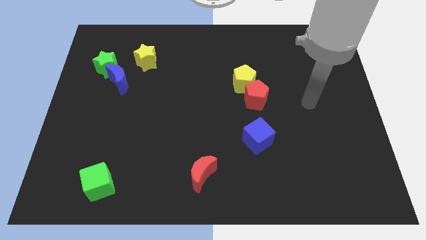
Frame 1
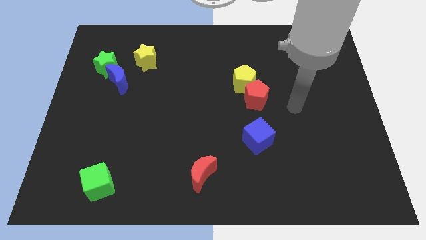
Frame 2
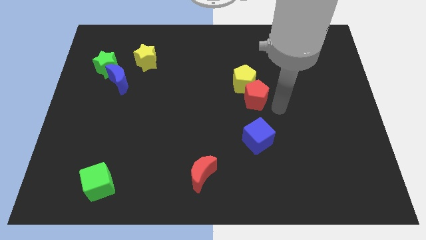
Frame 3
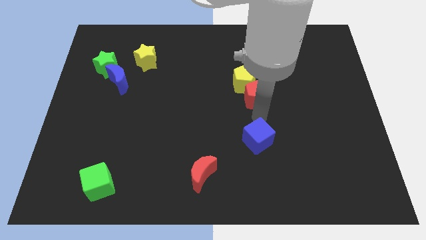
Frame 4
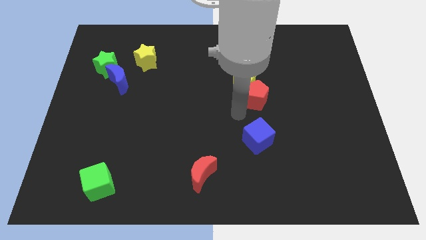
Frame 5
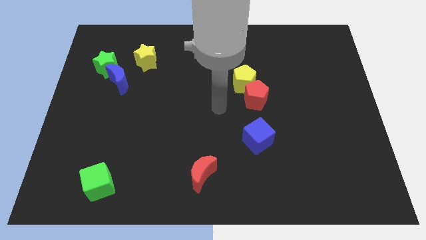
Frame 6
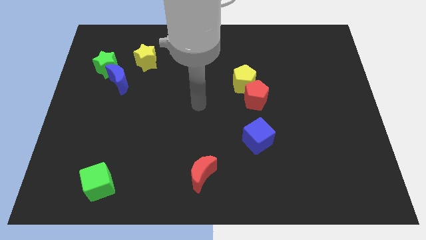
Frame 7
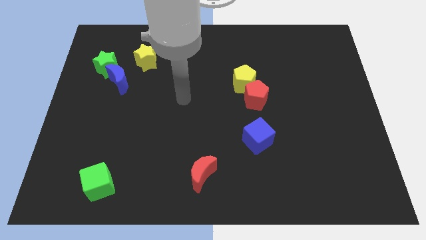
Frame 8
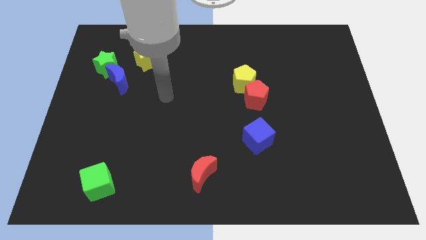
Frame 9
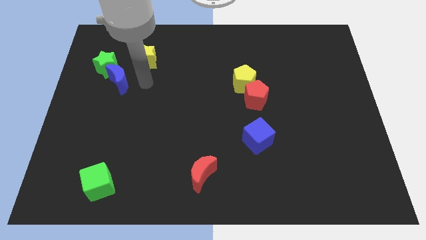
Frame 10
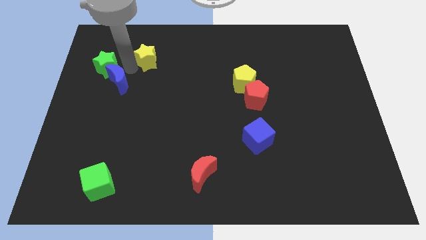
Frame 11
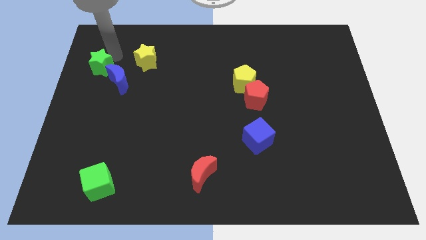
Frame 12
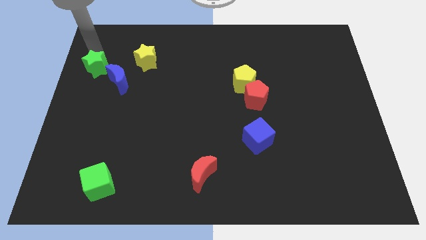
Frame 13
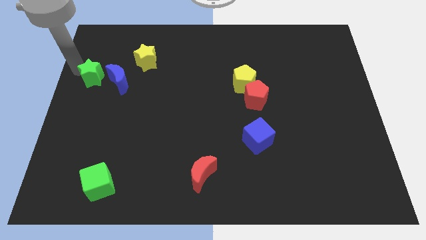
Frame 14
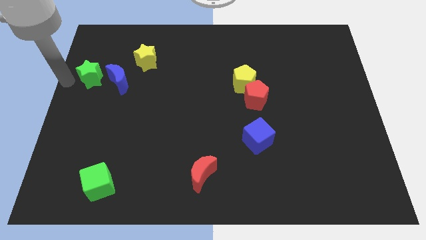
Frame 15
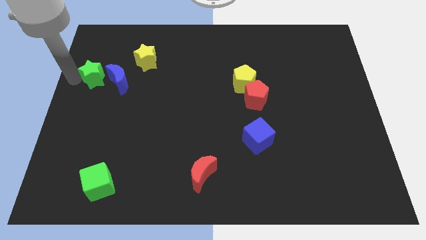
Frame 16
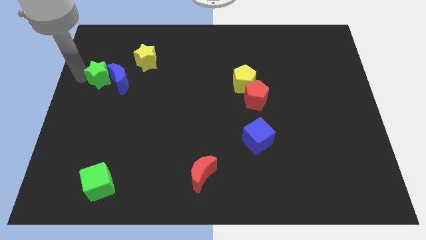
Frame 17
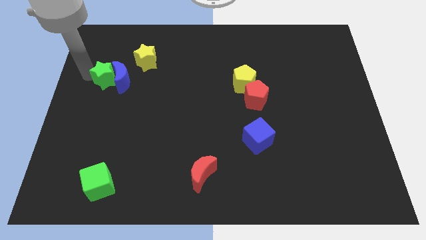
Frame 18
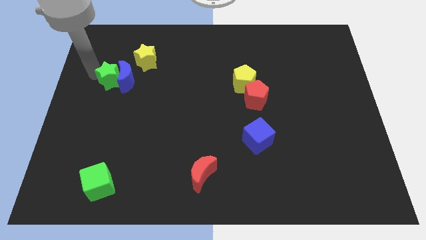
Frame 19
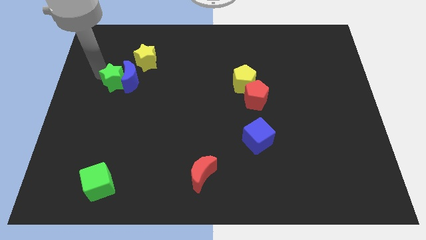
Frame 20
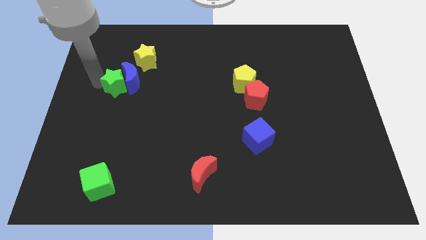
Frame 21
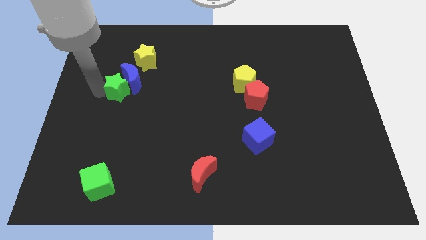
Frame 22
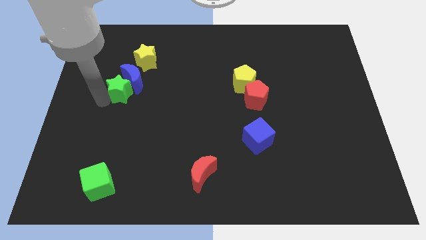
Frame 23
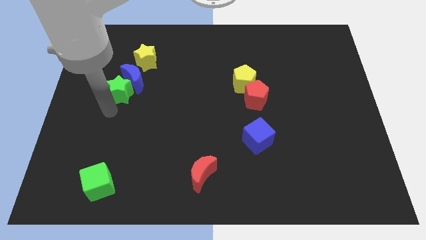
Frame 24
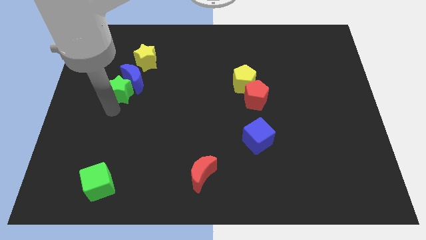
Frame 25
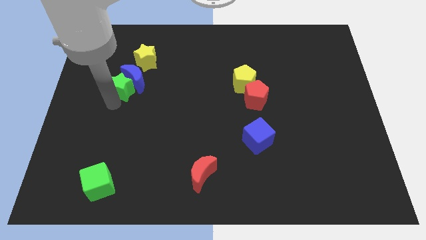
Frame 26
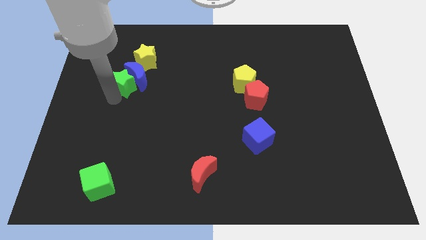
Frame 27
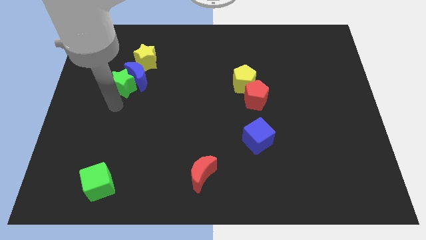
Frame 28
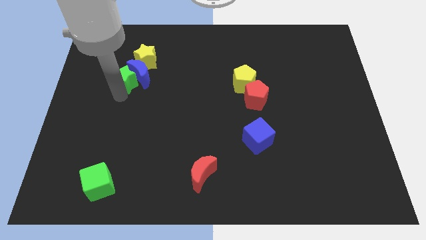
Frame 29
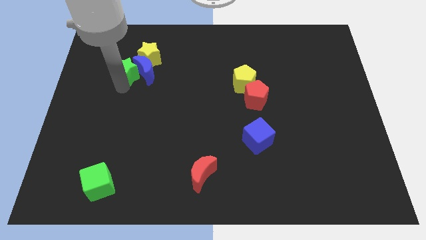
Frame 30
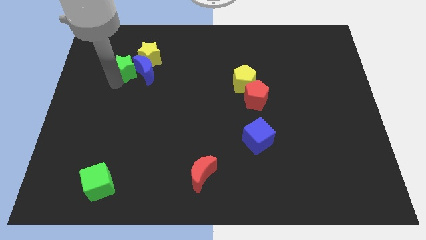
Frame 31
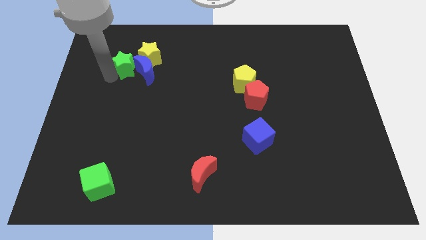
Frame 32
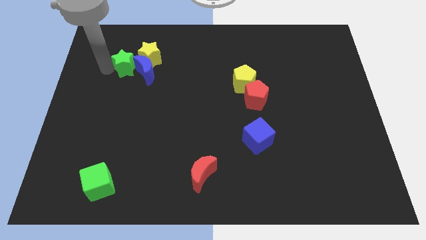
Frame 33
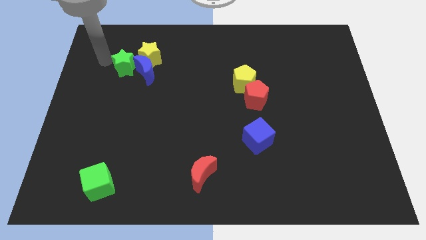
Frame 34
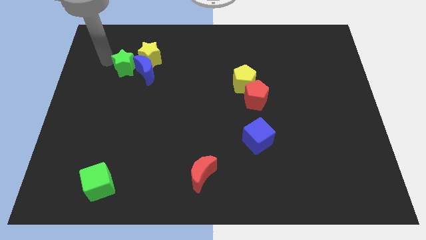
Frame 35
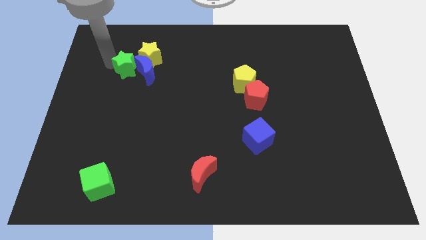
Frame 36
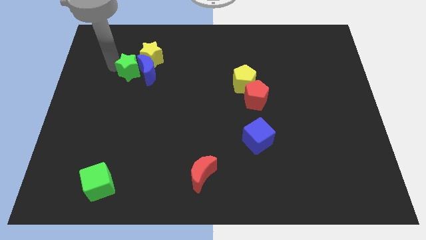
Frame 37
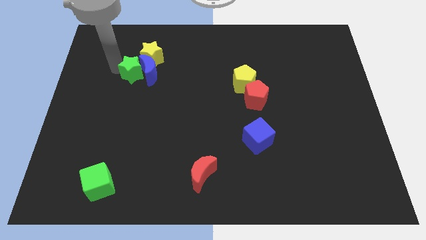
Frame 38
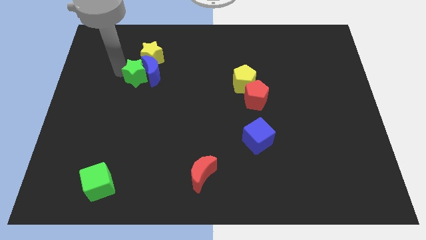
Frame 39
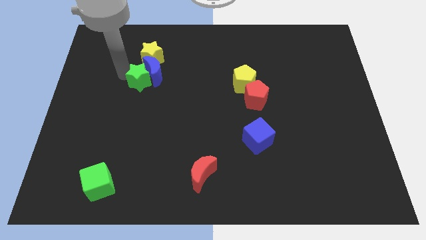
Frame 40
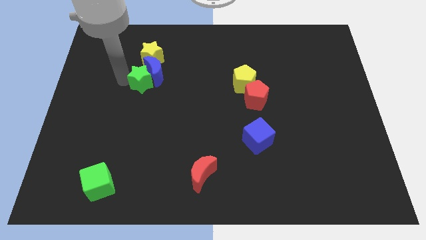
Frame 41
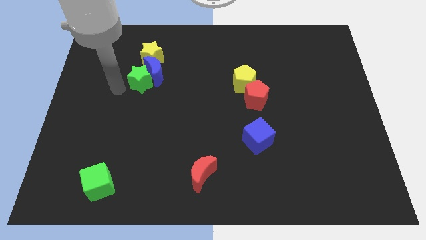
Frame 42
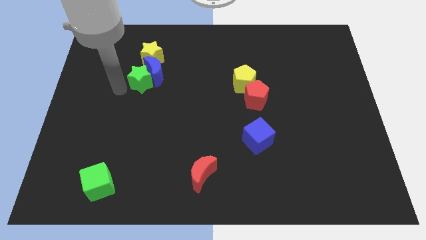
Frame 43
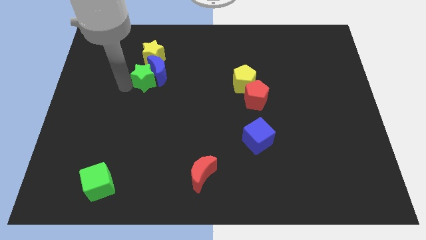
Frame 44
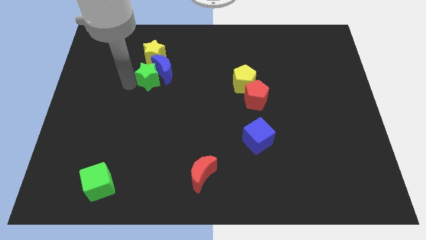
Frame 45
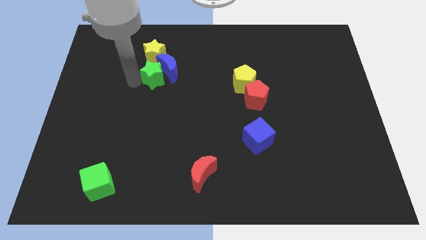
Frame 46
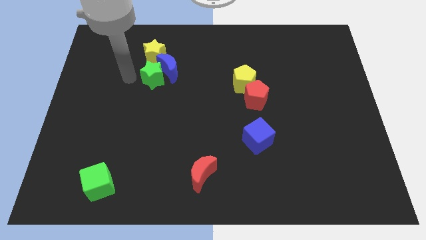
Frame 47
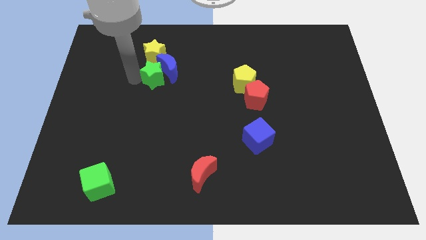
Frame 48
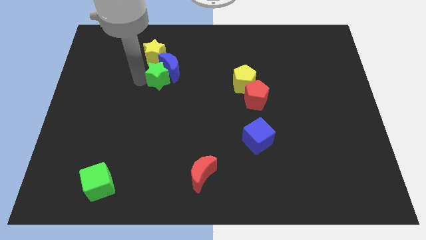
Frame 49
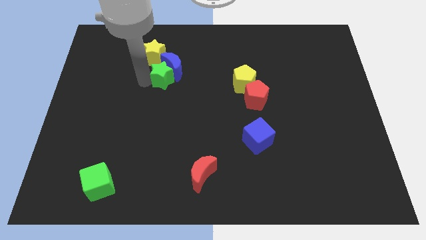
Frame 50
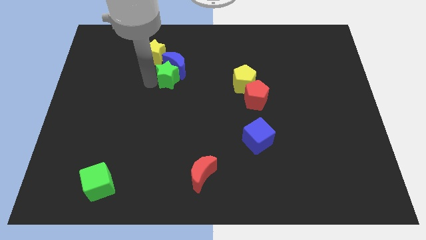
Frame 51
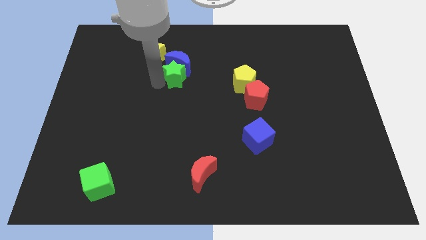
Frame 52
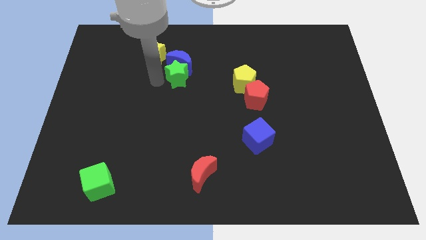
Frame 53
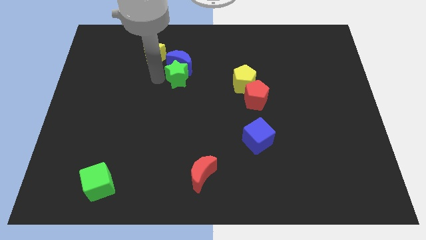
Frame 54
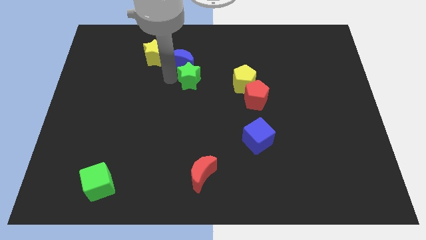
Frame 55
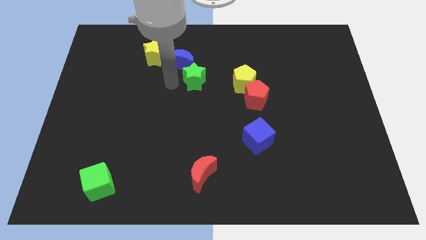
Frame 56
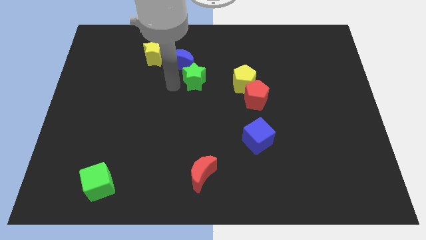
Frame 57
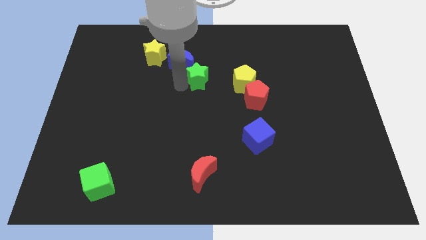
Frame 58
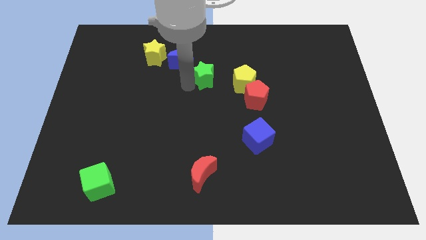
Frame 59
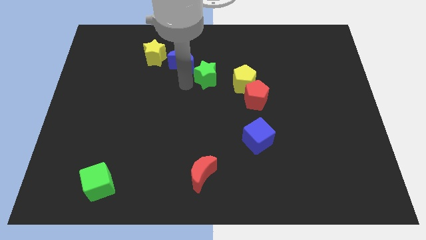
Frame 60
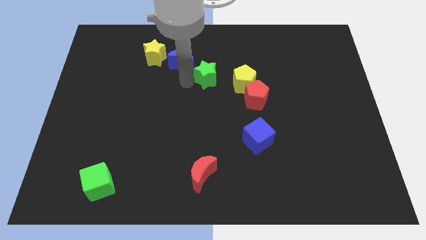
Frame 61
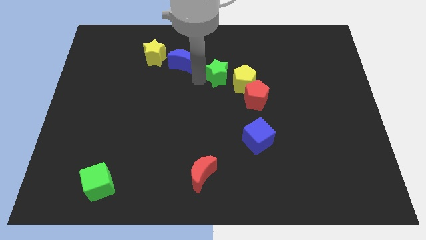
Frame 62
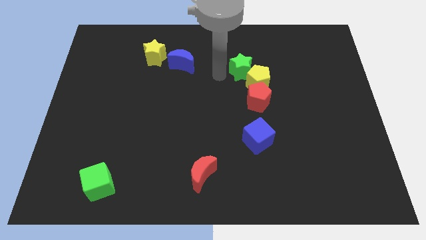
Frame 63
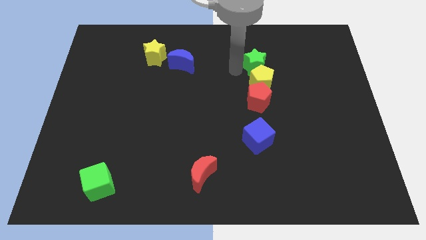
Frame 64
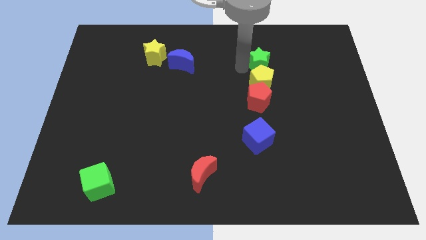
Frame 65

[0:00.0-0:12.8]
move the green star to the top right side of the yellow pentagon

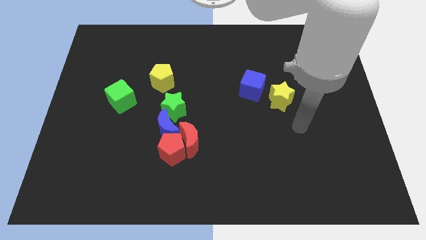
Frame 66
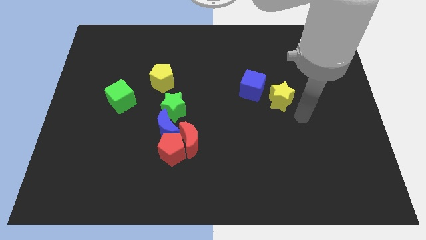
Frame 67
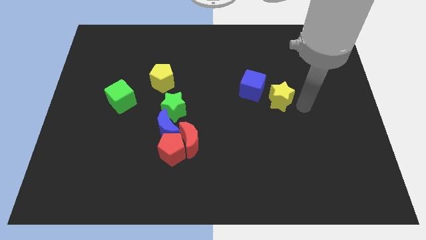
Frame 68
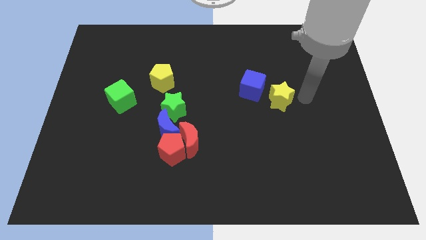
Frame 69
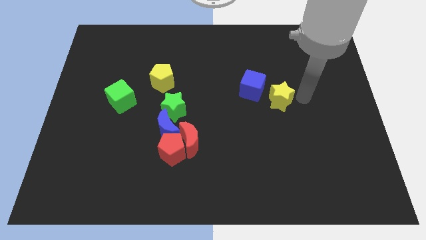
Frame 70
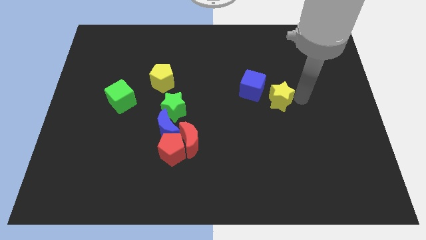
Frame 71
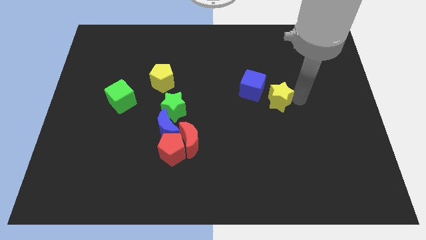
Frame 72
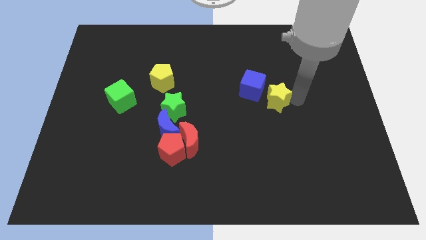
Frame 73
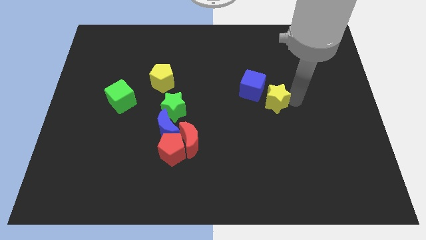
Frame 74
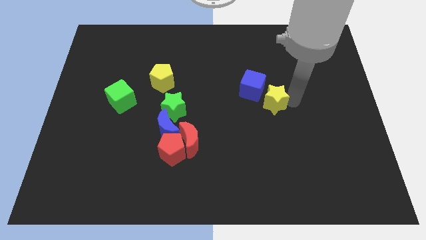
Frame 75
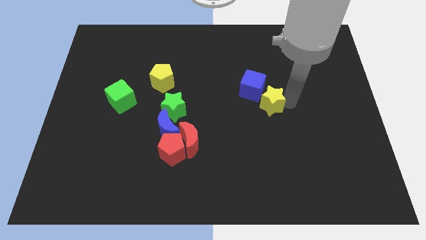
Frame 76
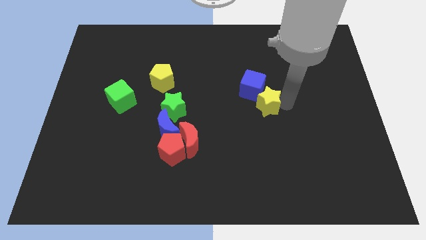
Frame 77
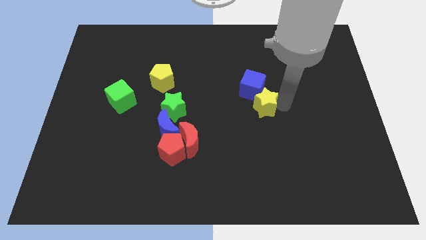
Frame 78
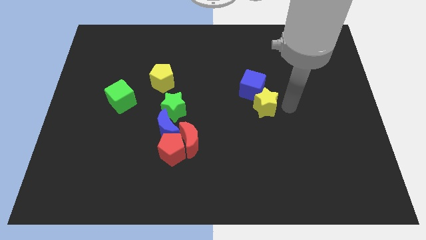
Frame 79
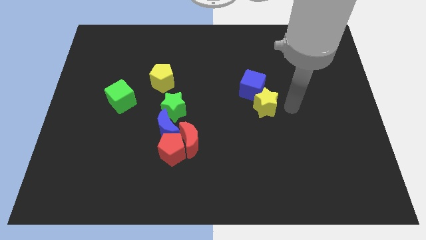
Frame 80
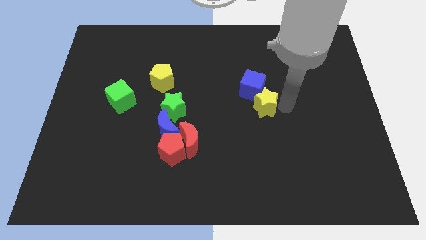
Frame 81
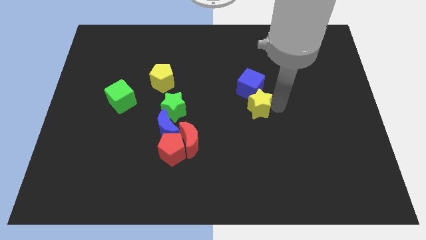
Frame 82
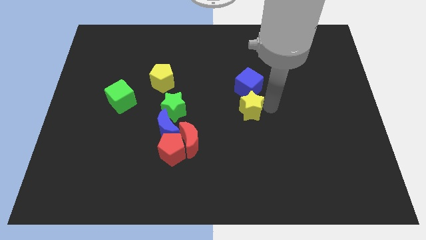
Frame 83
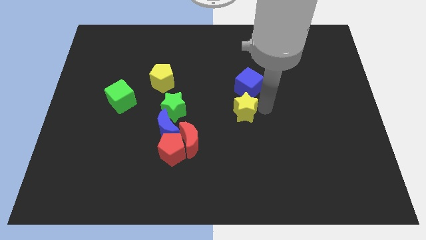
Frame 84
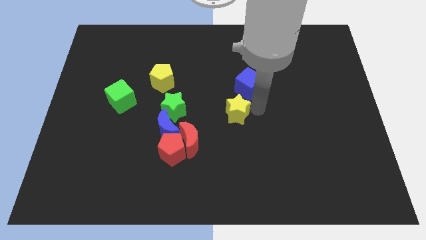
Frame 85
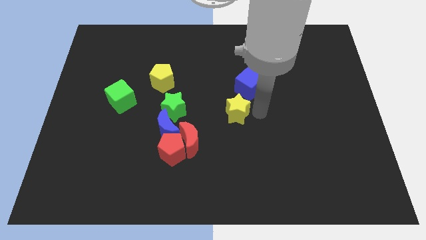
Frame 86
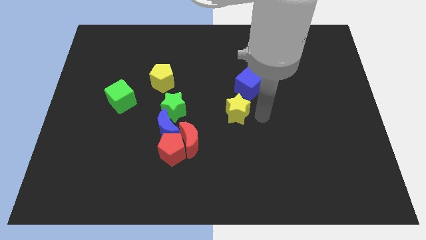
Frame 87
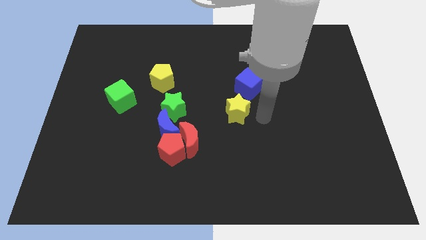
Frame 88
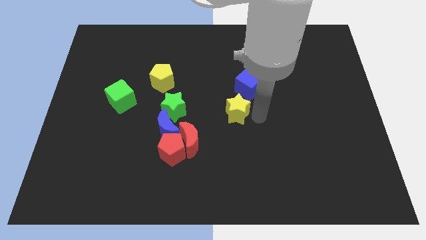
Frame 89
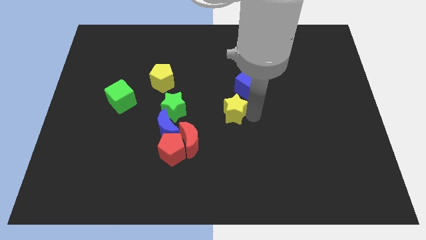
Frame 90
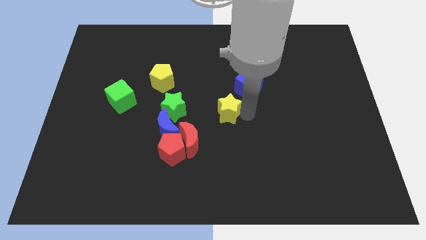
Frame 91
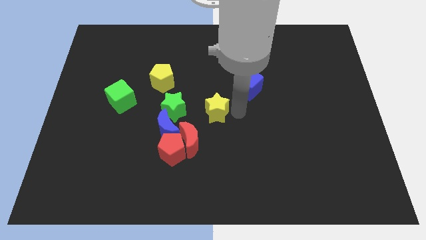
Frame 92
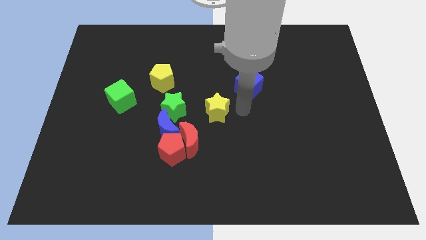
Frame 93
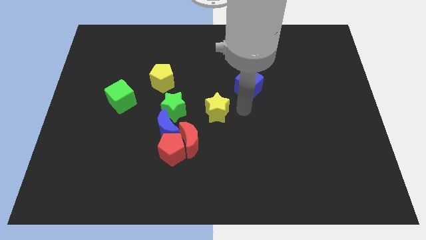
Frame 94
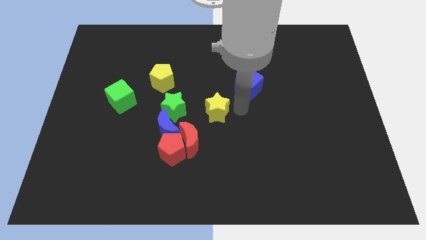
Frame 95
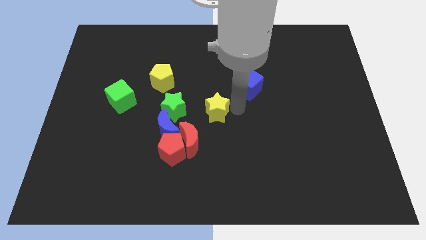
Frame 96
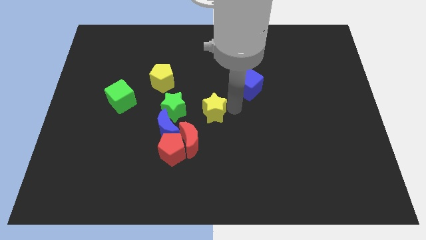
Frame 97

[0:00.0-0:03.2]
put the yellow star to the top right side of the blue moon
